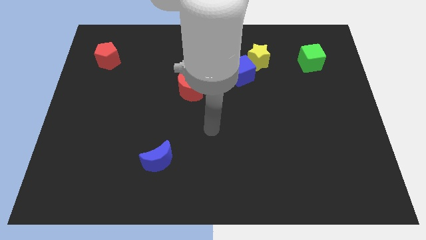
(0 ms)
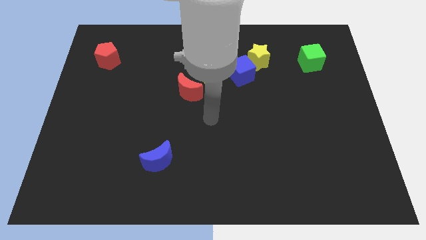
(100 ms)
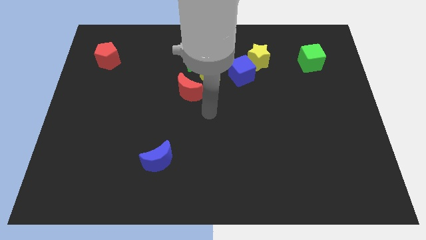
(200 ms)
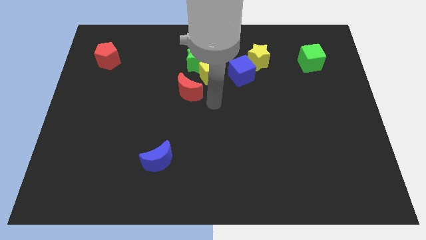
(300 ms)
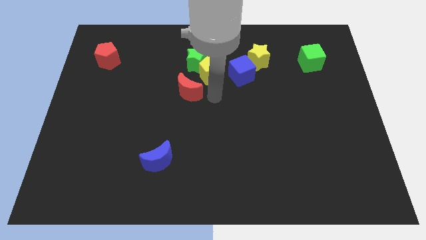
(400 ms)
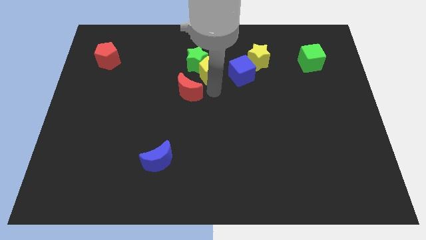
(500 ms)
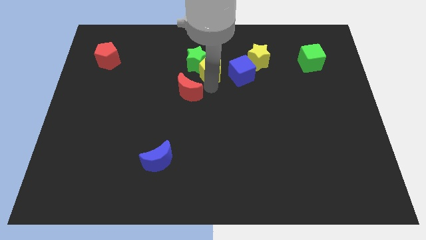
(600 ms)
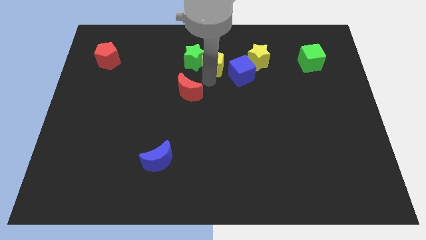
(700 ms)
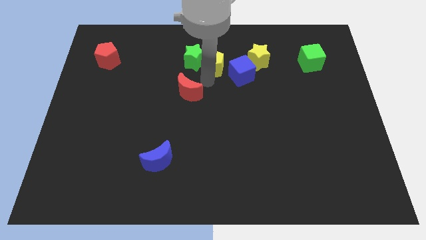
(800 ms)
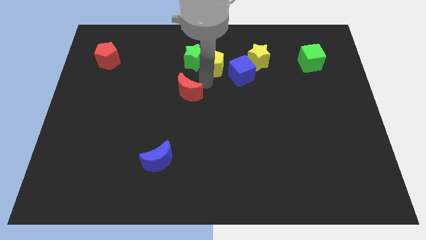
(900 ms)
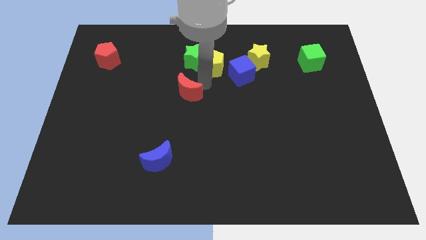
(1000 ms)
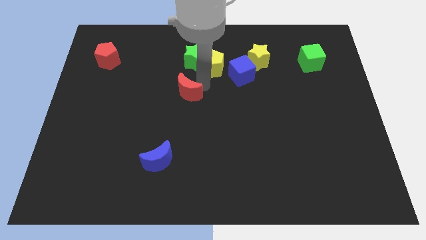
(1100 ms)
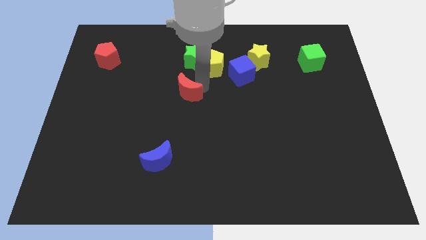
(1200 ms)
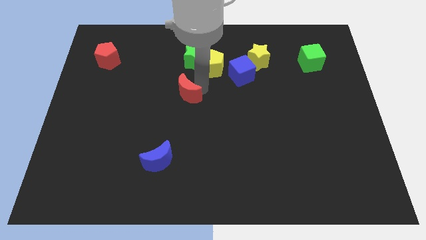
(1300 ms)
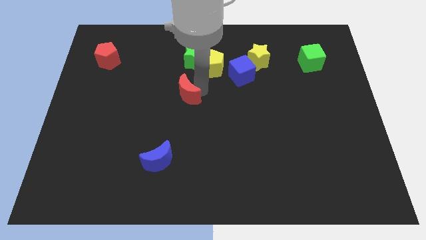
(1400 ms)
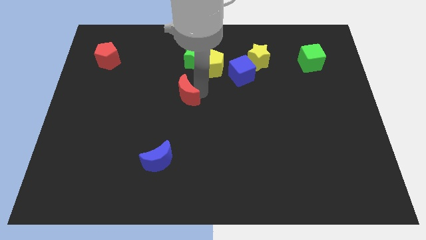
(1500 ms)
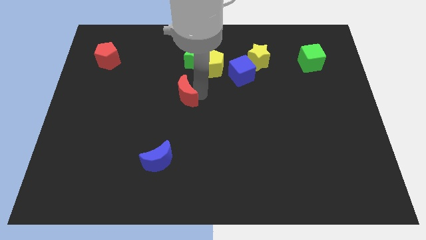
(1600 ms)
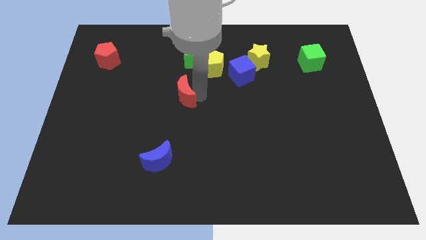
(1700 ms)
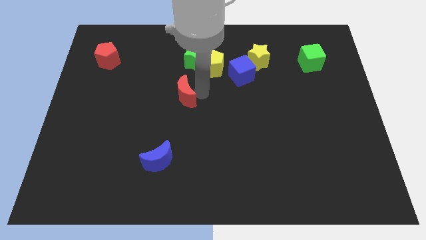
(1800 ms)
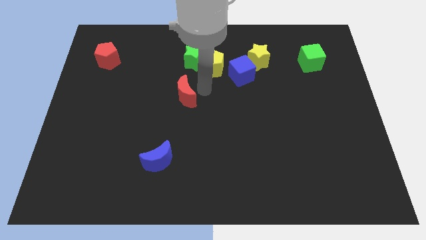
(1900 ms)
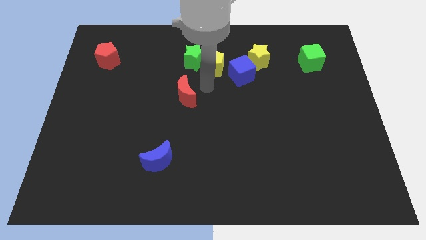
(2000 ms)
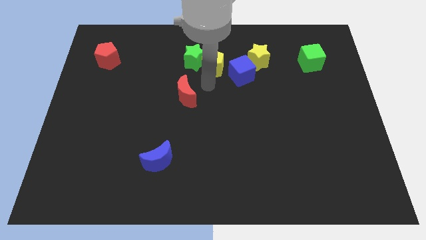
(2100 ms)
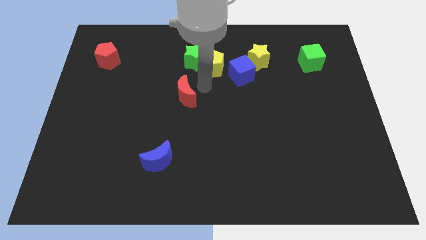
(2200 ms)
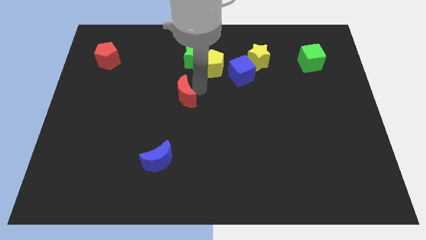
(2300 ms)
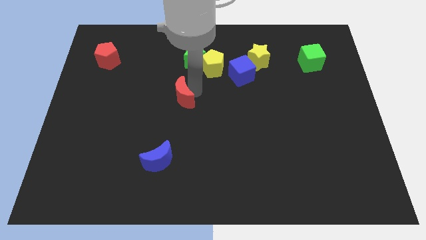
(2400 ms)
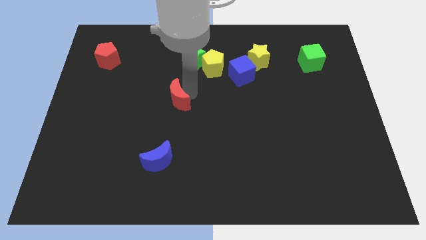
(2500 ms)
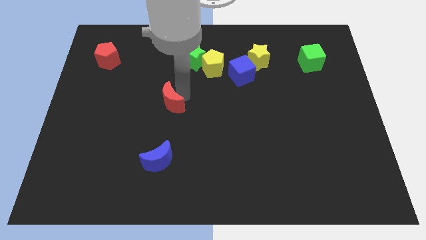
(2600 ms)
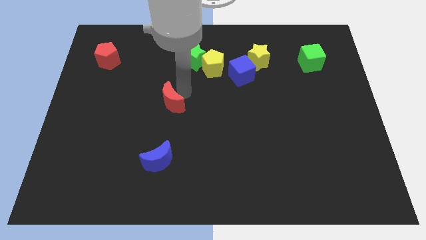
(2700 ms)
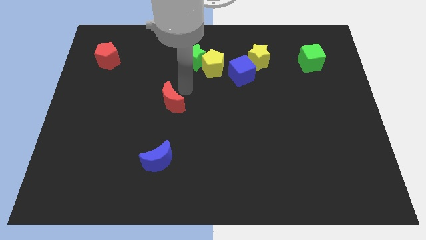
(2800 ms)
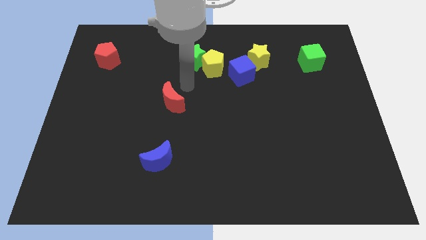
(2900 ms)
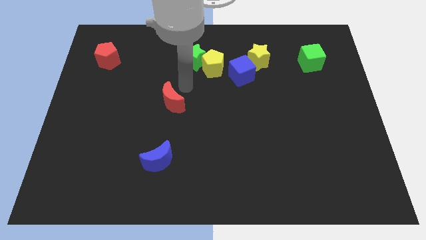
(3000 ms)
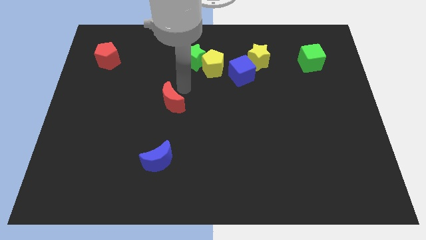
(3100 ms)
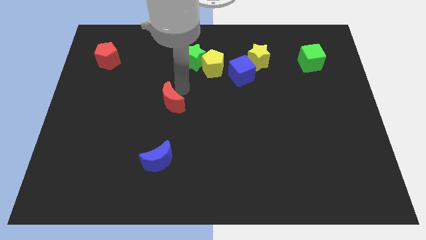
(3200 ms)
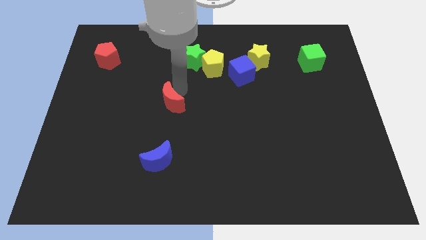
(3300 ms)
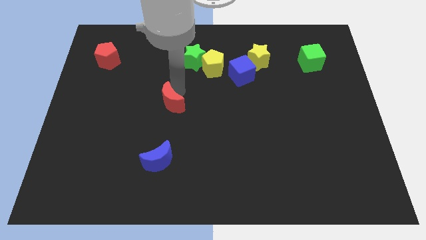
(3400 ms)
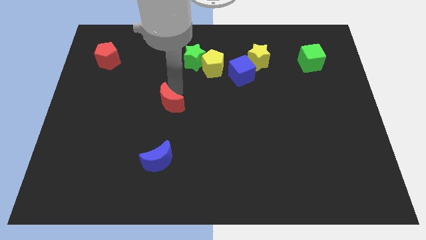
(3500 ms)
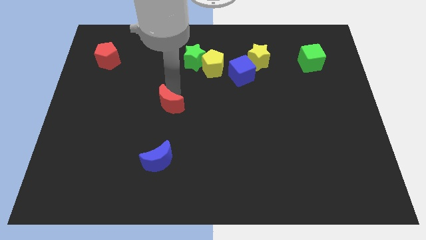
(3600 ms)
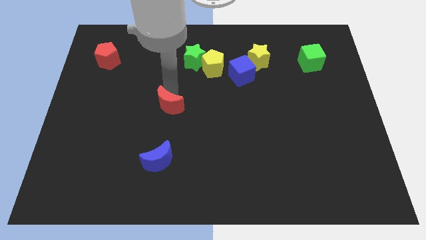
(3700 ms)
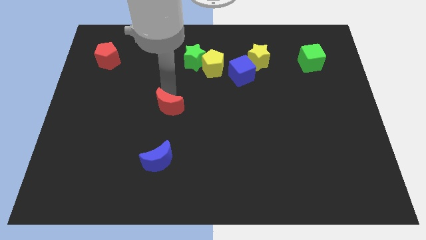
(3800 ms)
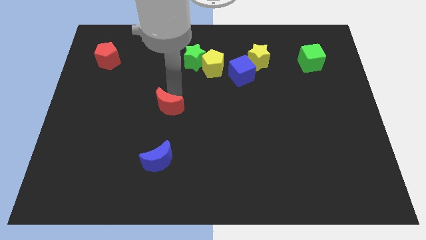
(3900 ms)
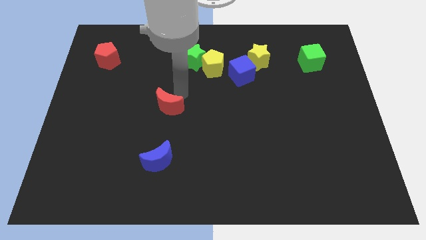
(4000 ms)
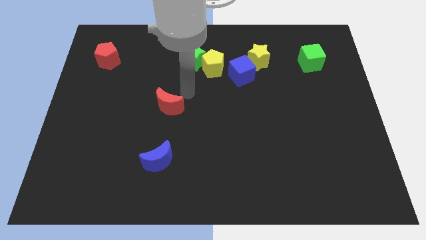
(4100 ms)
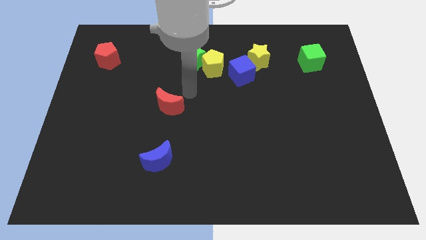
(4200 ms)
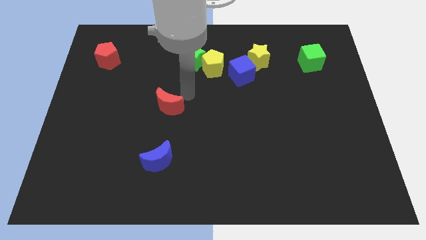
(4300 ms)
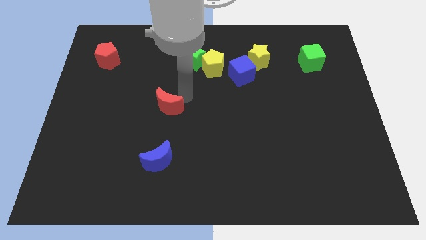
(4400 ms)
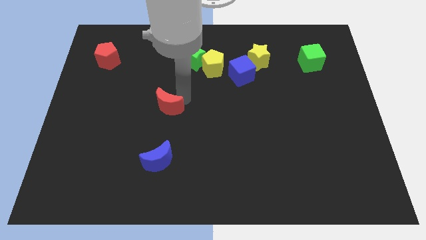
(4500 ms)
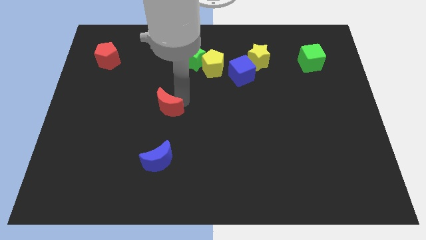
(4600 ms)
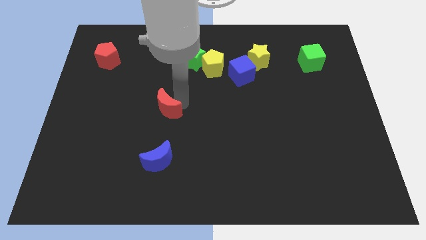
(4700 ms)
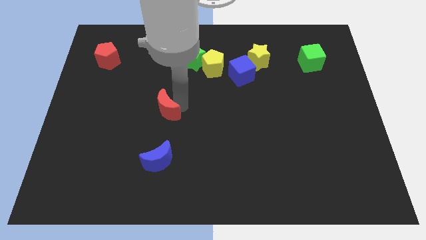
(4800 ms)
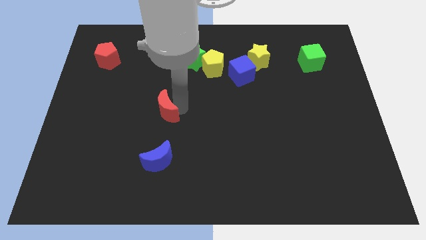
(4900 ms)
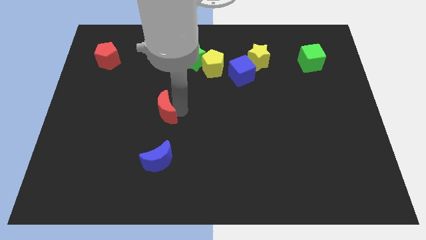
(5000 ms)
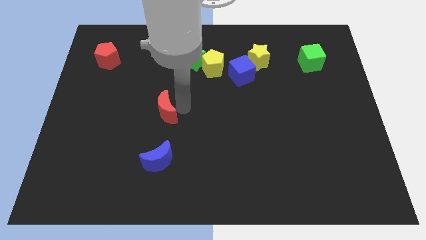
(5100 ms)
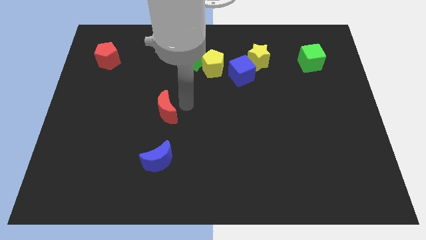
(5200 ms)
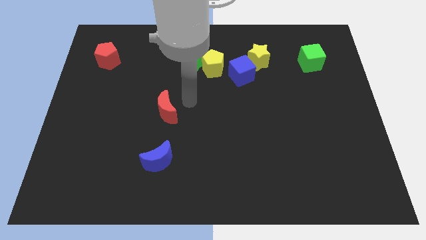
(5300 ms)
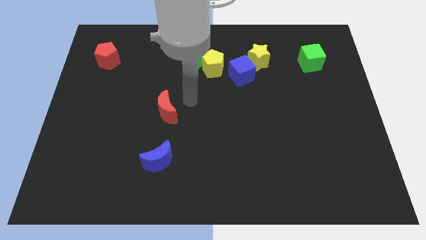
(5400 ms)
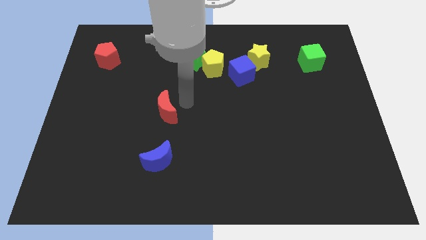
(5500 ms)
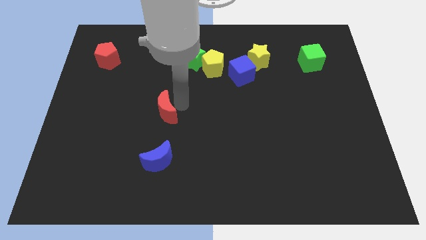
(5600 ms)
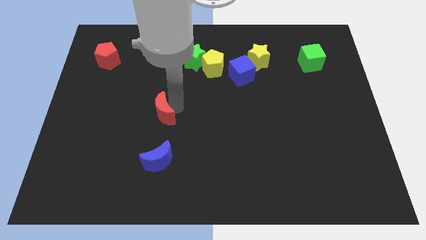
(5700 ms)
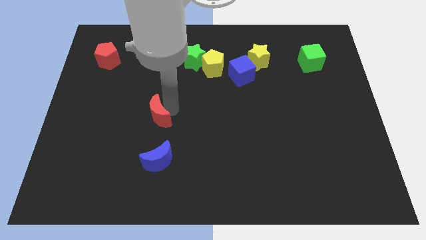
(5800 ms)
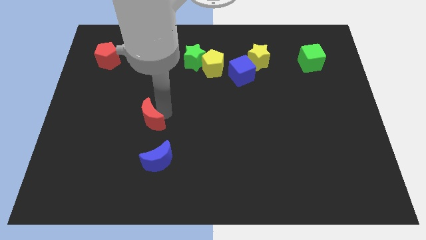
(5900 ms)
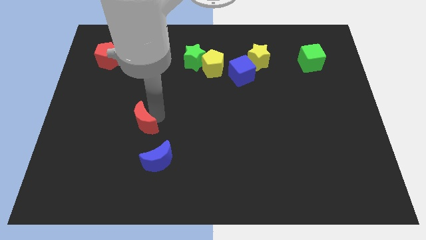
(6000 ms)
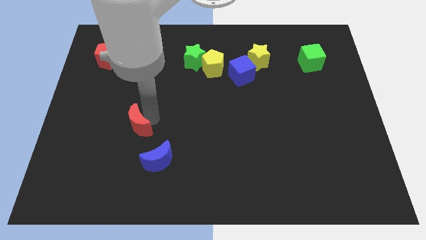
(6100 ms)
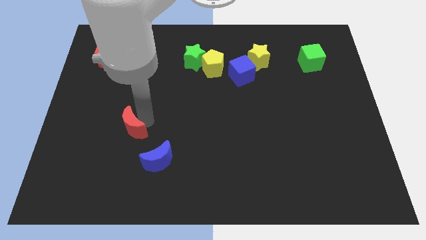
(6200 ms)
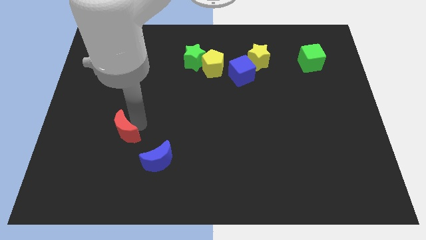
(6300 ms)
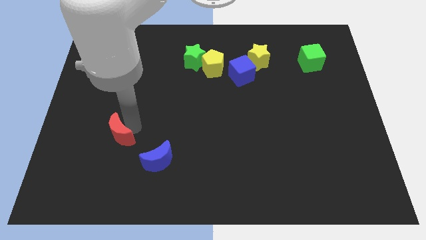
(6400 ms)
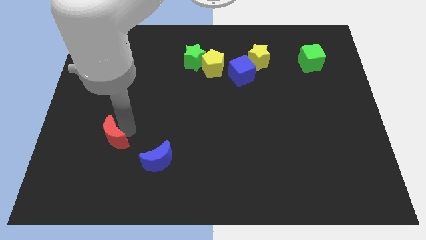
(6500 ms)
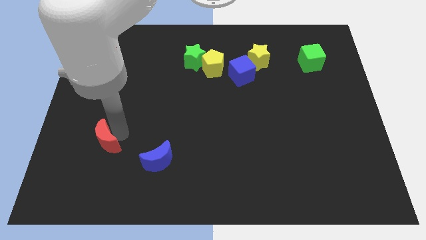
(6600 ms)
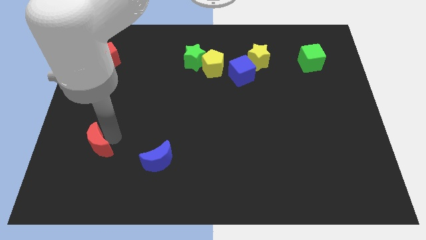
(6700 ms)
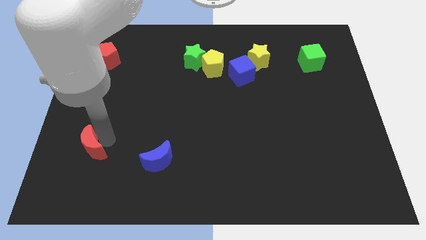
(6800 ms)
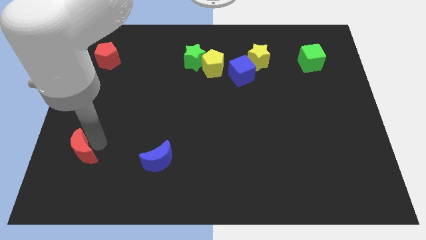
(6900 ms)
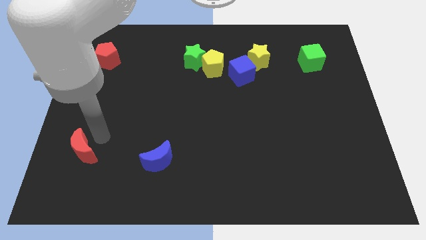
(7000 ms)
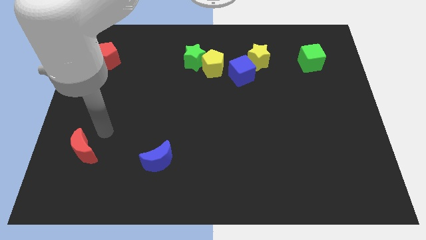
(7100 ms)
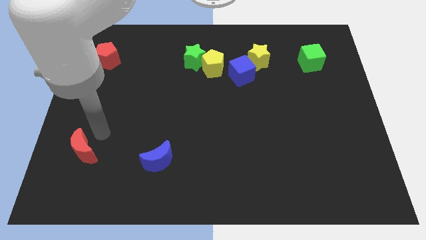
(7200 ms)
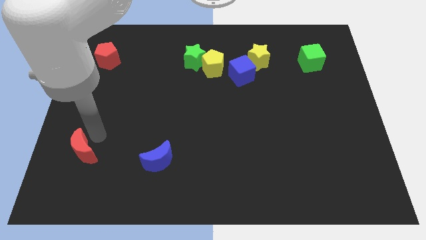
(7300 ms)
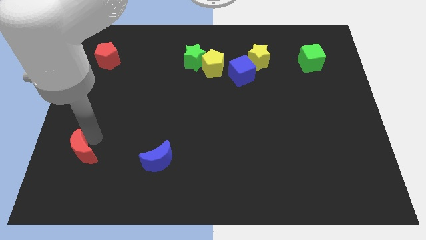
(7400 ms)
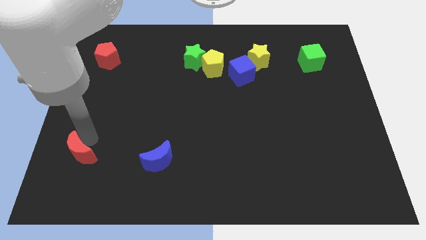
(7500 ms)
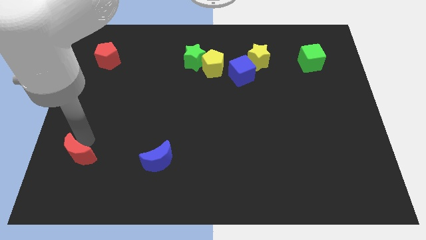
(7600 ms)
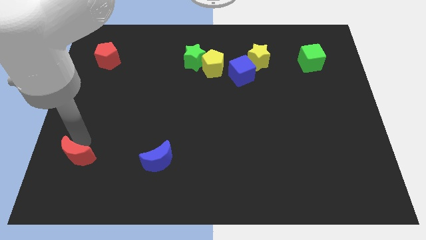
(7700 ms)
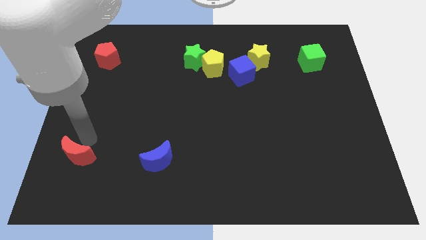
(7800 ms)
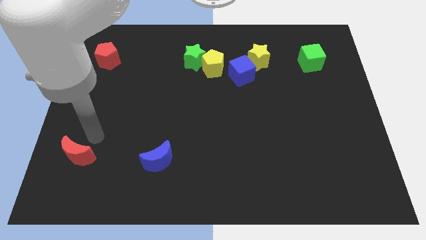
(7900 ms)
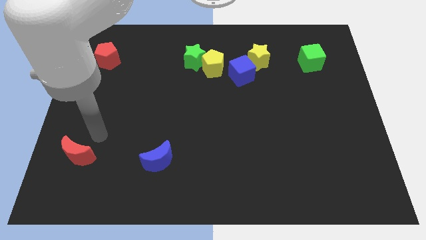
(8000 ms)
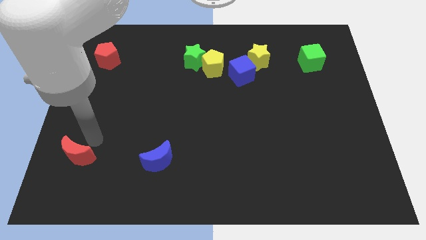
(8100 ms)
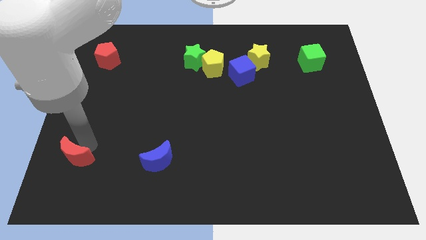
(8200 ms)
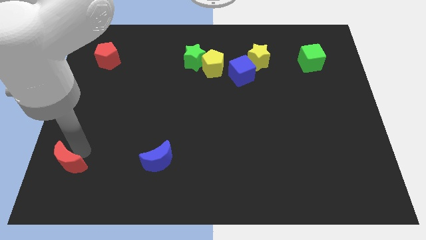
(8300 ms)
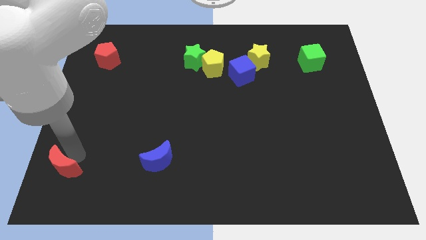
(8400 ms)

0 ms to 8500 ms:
put the red moon to the bottom left corner
